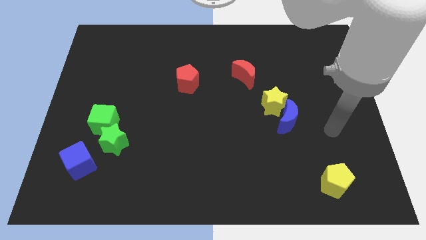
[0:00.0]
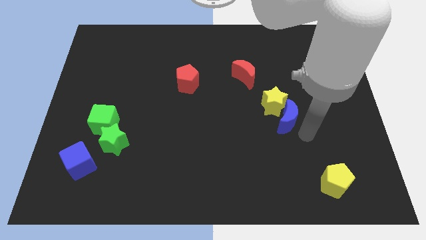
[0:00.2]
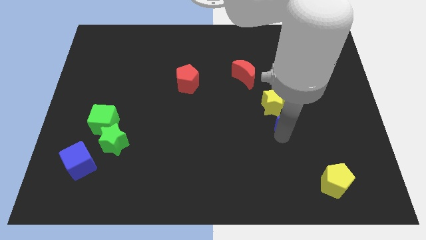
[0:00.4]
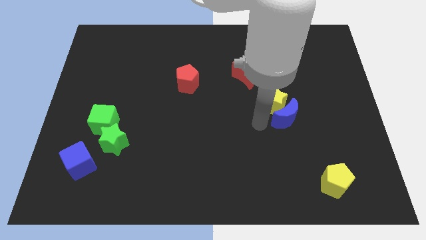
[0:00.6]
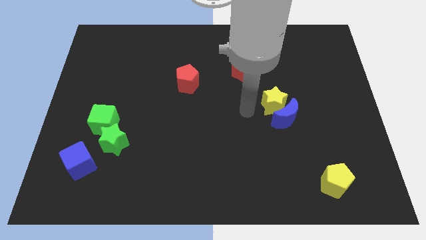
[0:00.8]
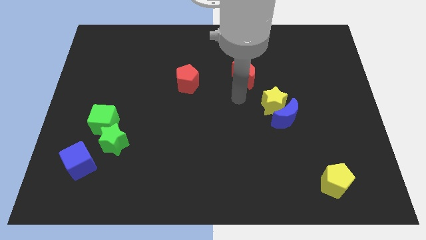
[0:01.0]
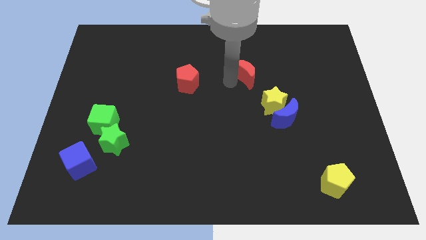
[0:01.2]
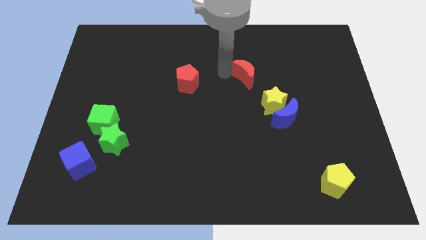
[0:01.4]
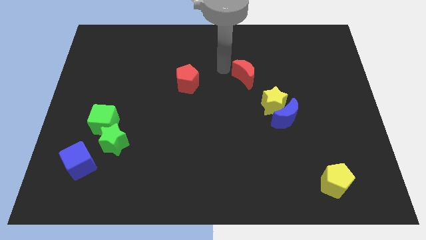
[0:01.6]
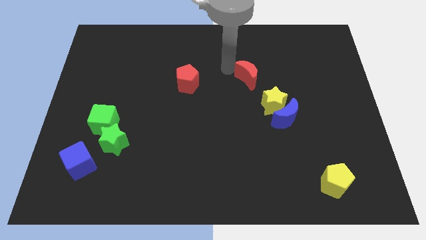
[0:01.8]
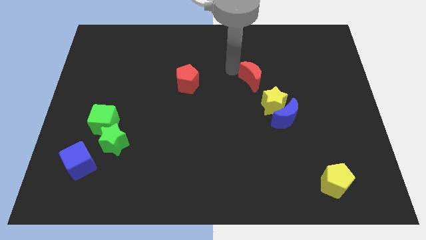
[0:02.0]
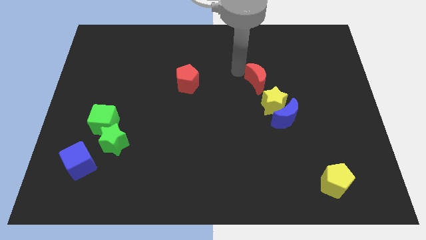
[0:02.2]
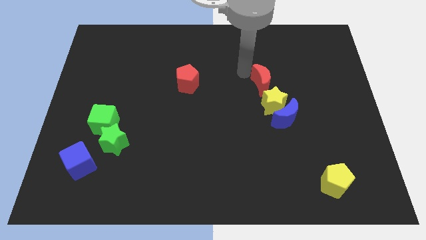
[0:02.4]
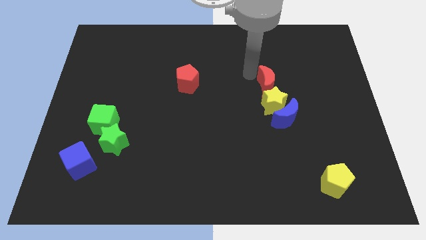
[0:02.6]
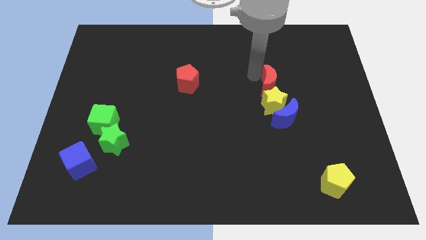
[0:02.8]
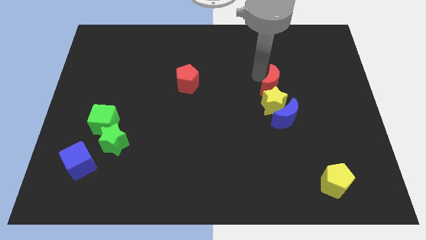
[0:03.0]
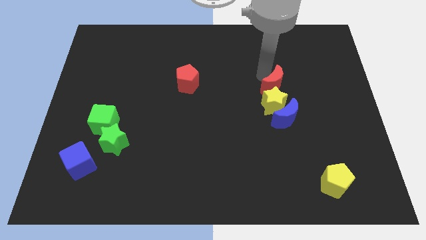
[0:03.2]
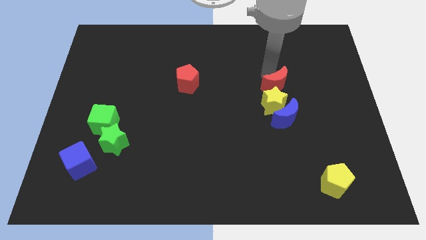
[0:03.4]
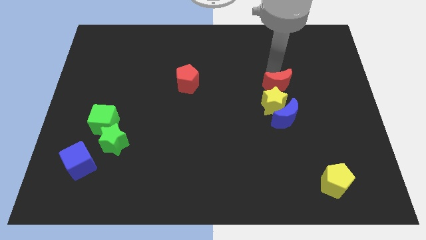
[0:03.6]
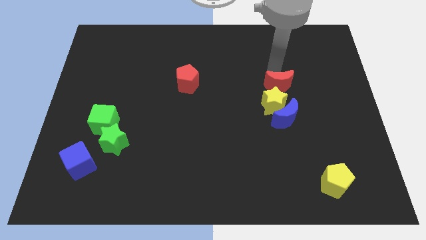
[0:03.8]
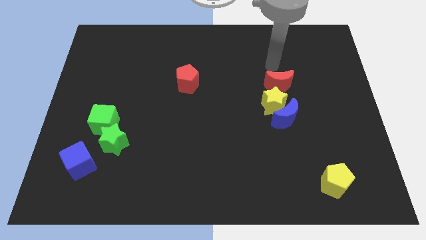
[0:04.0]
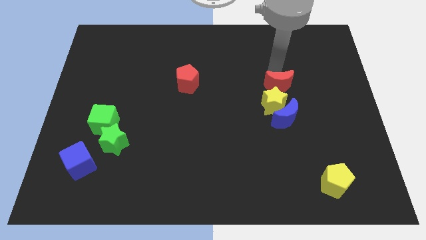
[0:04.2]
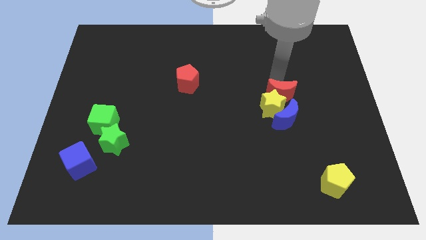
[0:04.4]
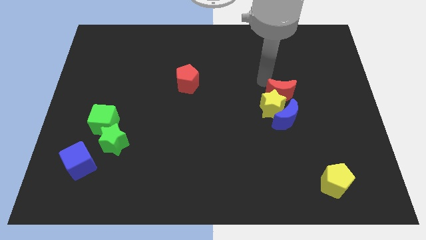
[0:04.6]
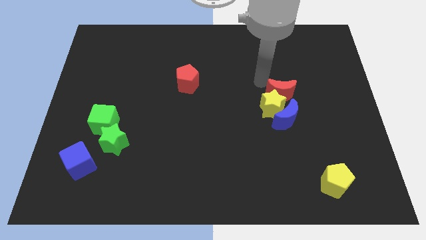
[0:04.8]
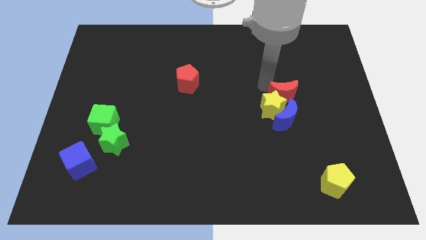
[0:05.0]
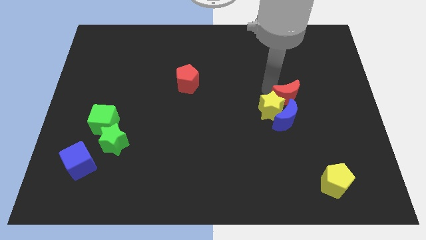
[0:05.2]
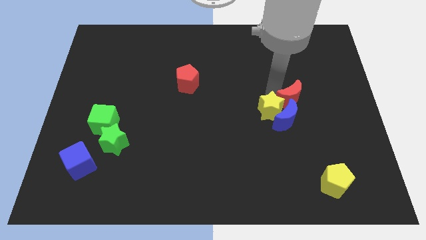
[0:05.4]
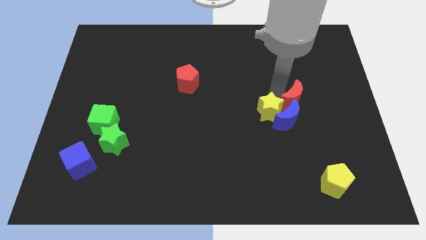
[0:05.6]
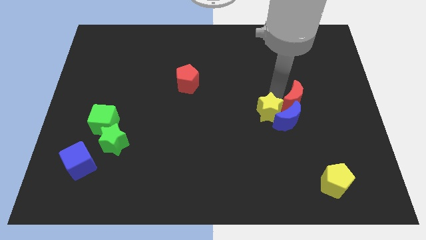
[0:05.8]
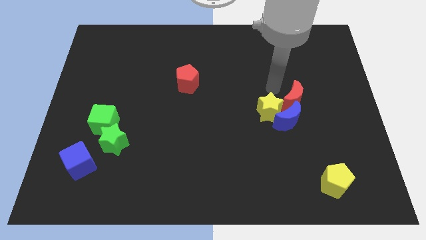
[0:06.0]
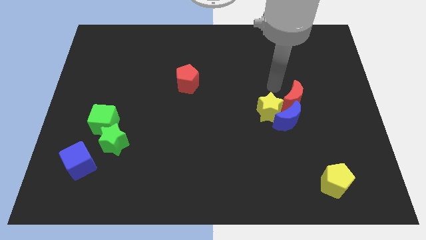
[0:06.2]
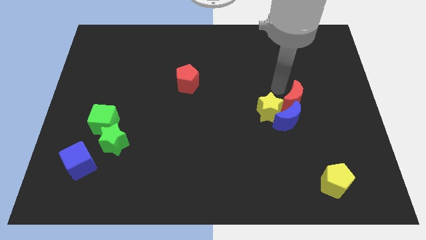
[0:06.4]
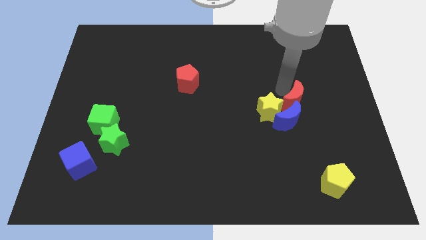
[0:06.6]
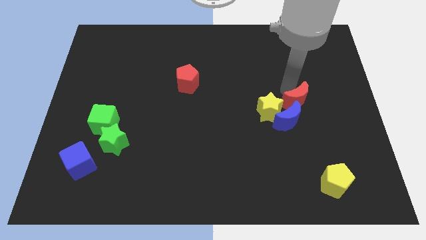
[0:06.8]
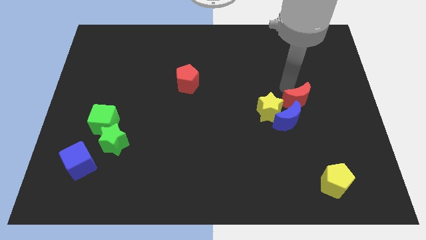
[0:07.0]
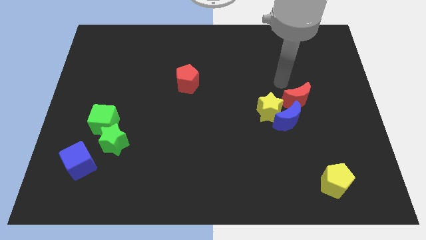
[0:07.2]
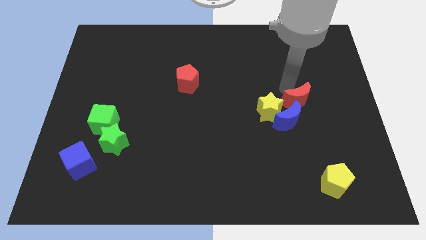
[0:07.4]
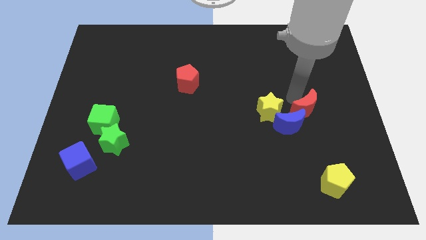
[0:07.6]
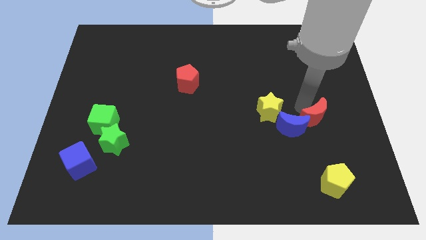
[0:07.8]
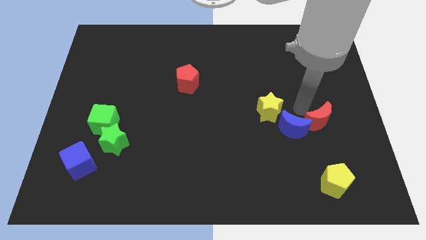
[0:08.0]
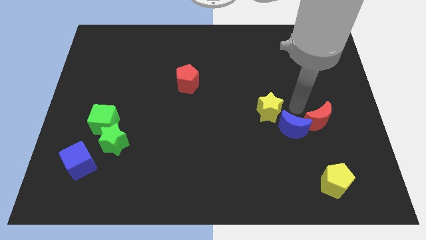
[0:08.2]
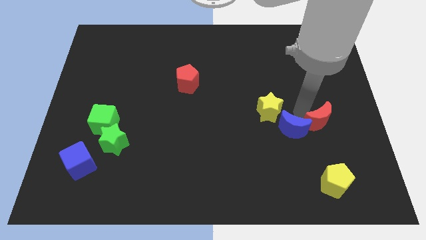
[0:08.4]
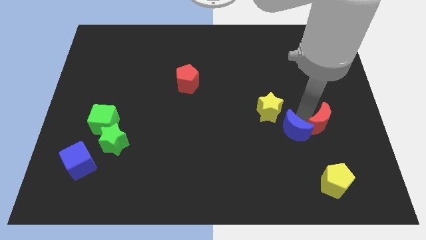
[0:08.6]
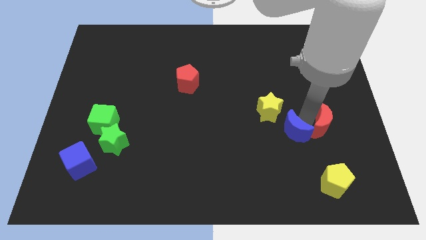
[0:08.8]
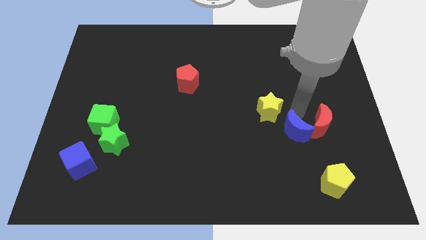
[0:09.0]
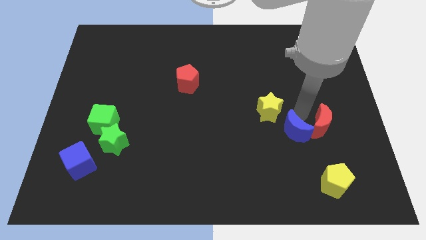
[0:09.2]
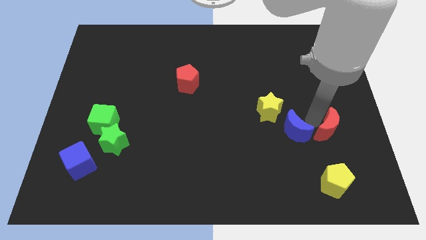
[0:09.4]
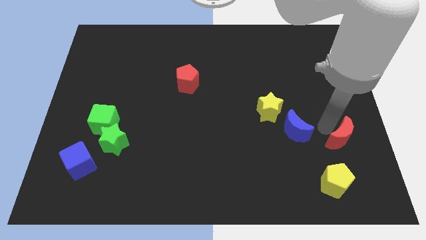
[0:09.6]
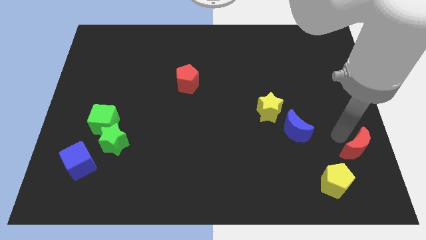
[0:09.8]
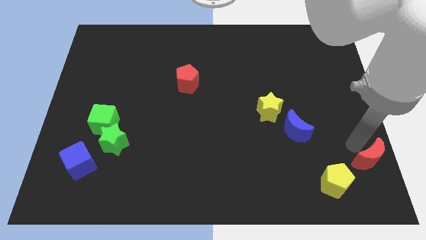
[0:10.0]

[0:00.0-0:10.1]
slide the red moon to the bottom right of the board

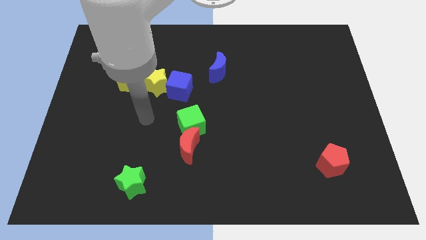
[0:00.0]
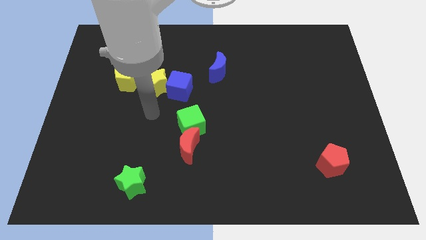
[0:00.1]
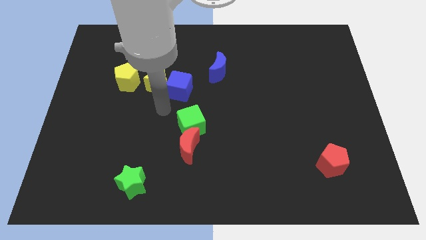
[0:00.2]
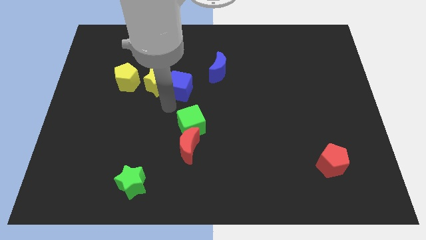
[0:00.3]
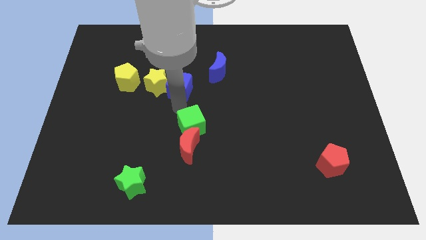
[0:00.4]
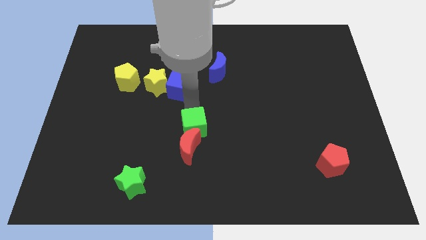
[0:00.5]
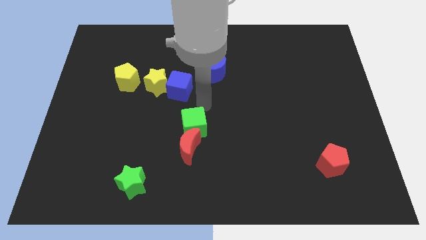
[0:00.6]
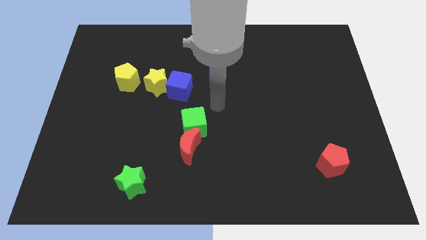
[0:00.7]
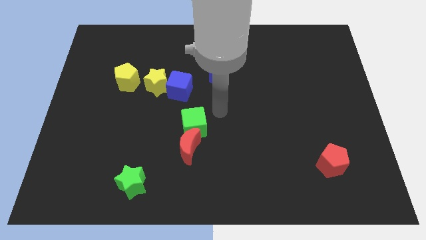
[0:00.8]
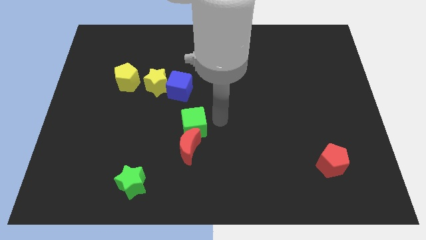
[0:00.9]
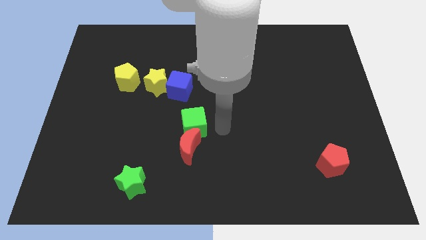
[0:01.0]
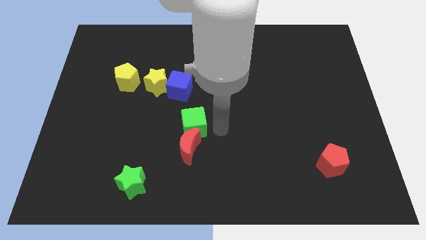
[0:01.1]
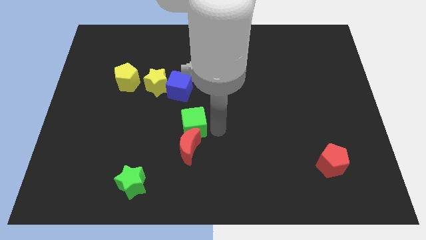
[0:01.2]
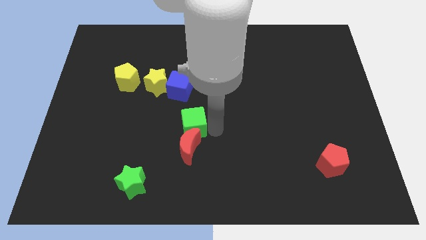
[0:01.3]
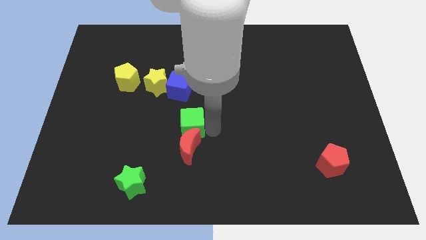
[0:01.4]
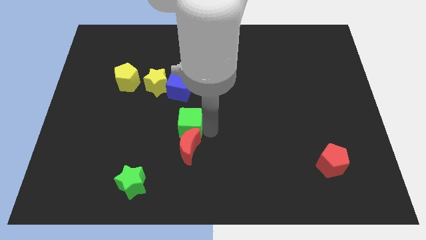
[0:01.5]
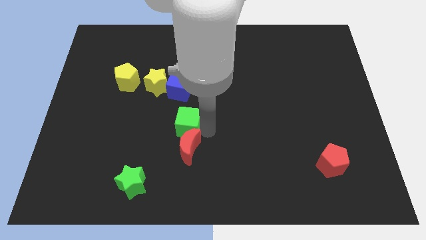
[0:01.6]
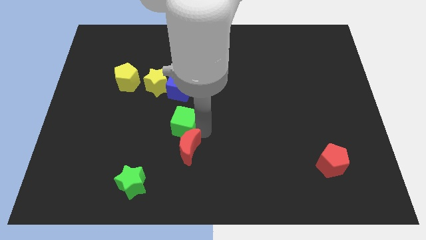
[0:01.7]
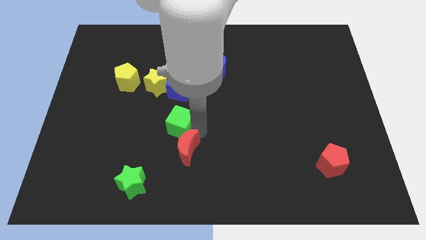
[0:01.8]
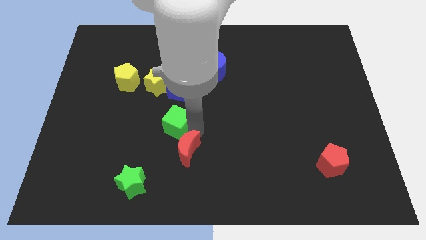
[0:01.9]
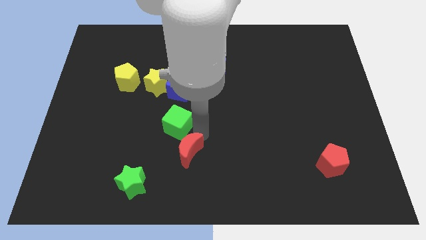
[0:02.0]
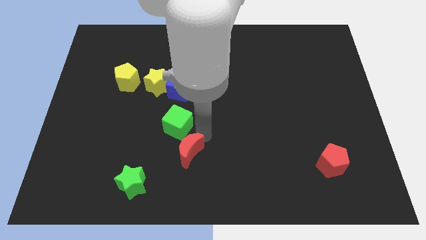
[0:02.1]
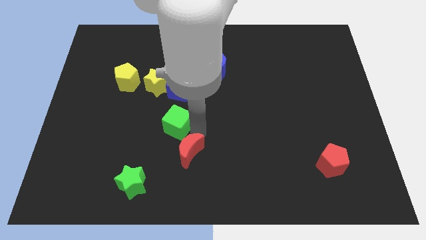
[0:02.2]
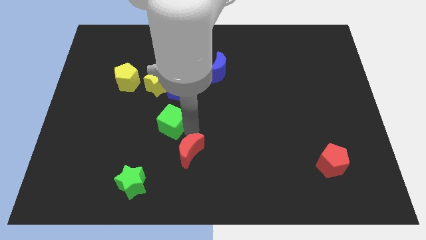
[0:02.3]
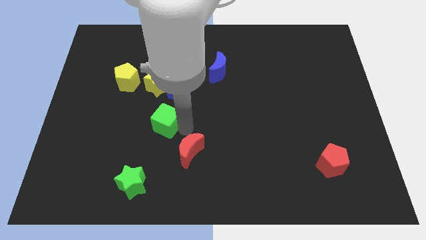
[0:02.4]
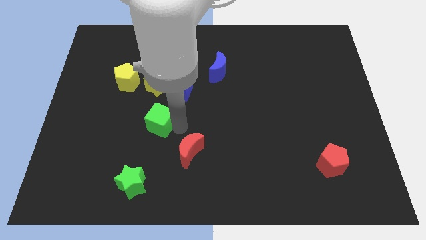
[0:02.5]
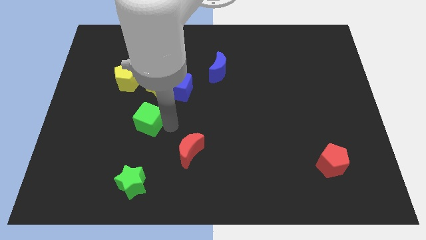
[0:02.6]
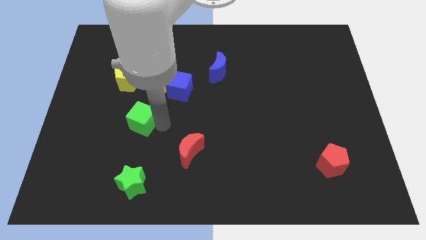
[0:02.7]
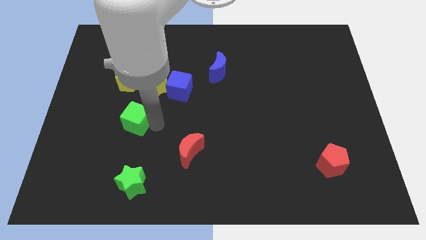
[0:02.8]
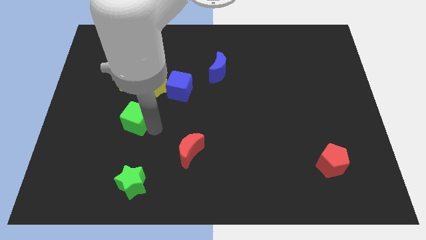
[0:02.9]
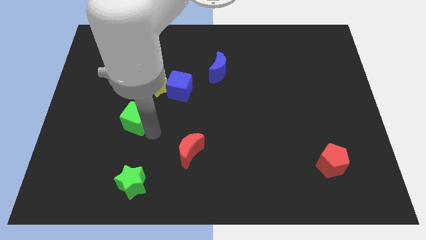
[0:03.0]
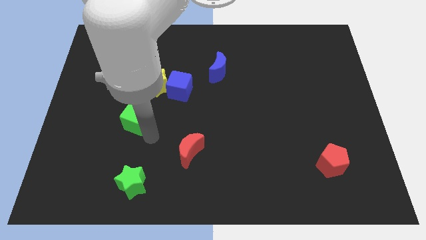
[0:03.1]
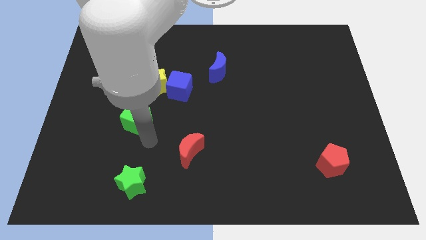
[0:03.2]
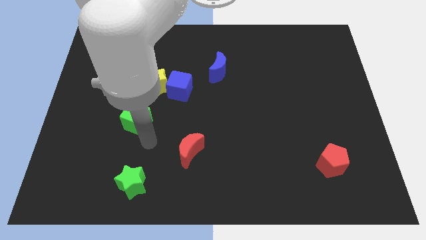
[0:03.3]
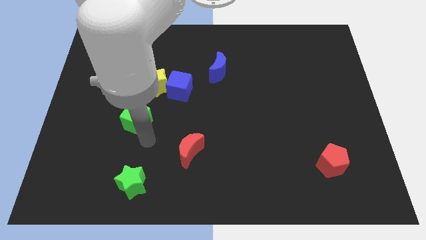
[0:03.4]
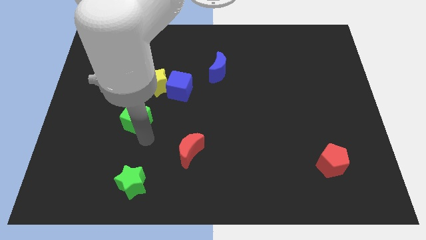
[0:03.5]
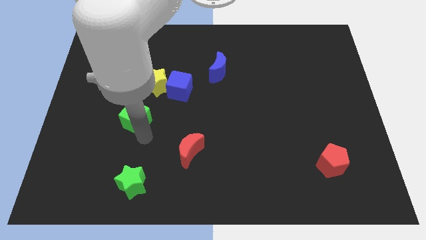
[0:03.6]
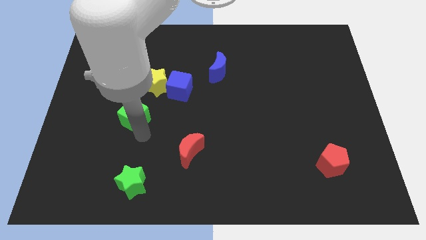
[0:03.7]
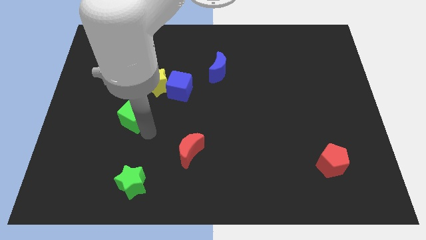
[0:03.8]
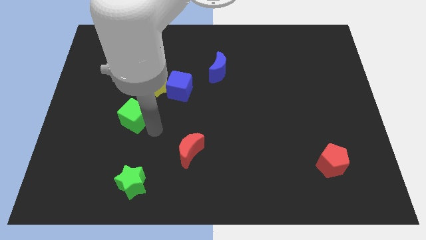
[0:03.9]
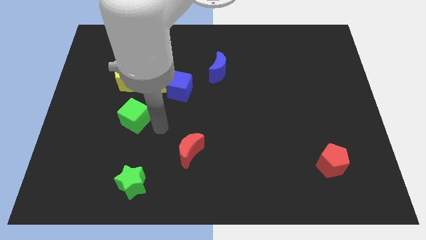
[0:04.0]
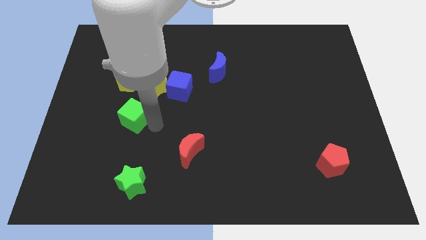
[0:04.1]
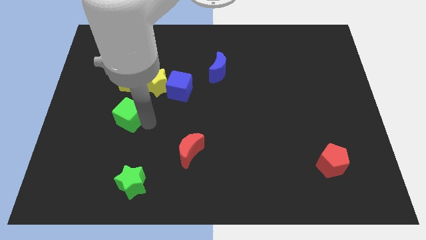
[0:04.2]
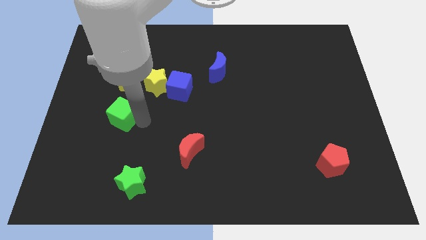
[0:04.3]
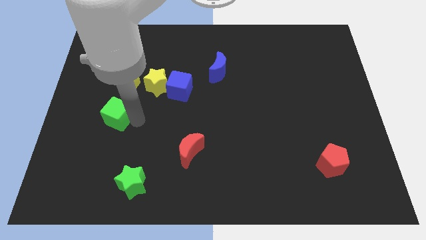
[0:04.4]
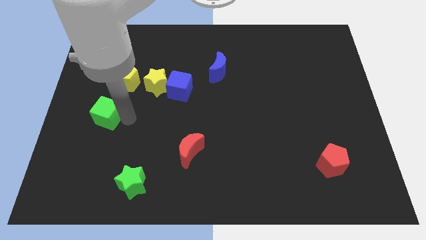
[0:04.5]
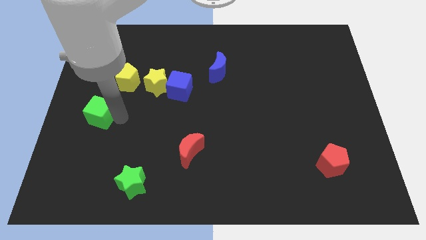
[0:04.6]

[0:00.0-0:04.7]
slide the green cube to the left side
